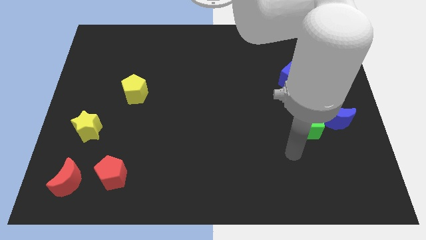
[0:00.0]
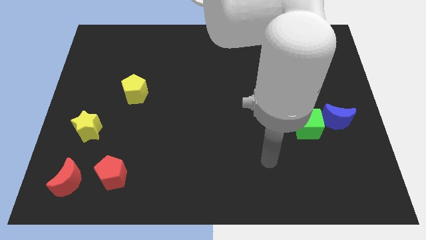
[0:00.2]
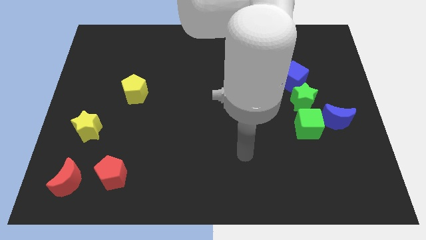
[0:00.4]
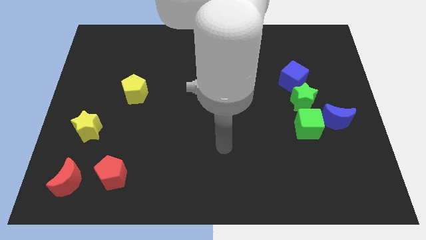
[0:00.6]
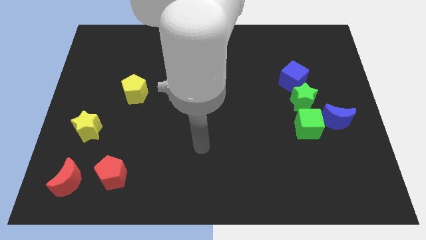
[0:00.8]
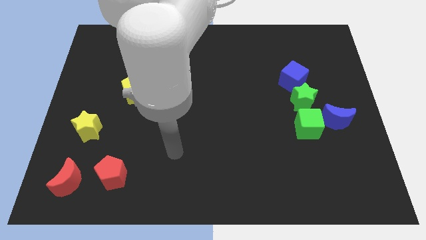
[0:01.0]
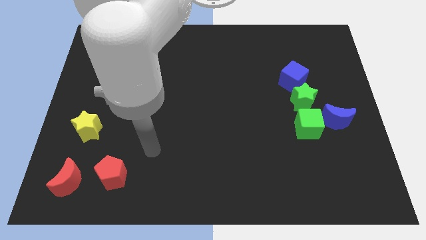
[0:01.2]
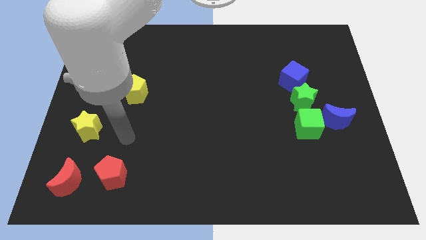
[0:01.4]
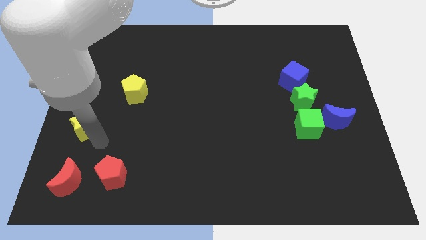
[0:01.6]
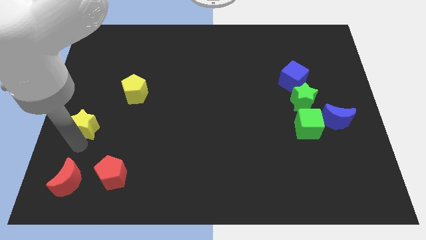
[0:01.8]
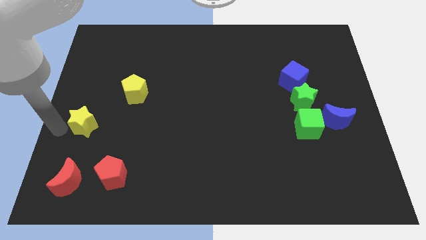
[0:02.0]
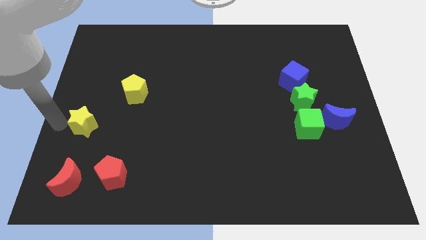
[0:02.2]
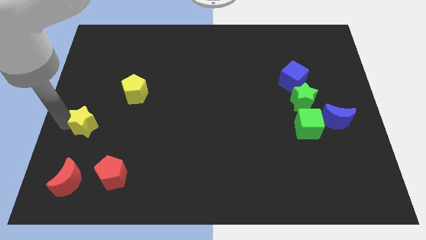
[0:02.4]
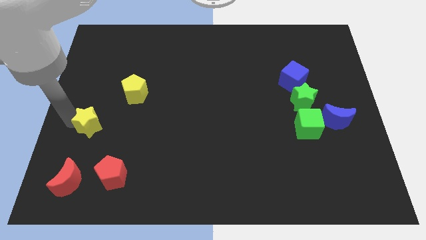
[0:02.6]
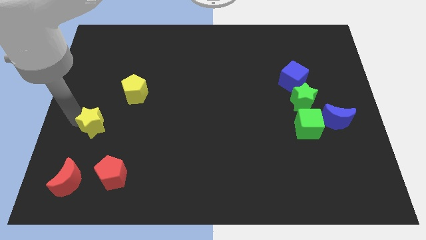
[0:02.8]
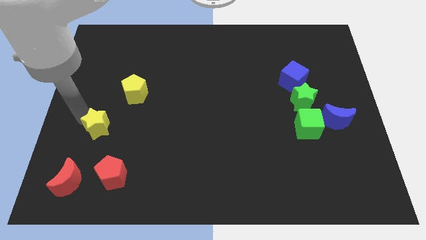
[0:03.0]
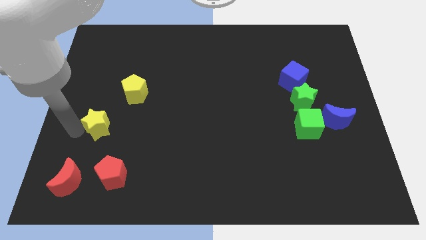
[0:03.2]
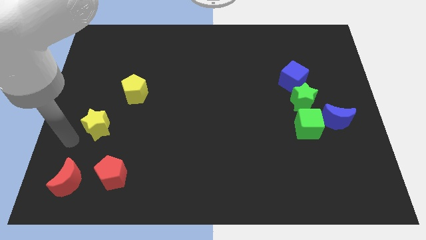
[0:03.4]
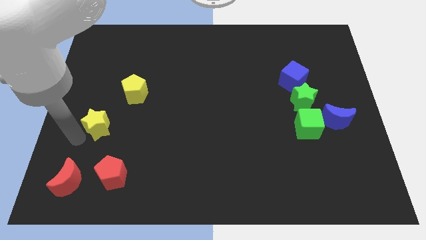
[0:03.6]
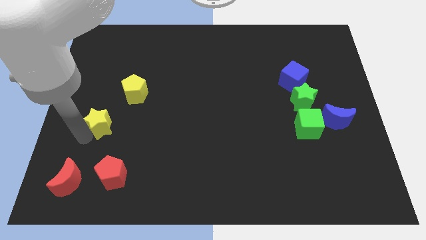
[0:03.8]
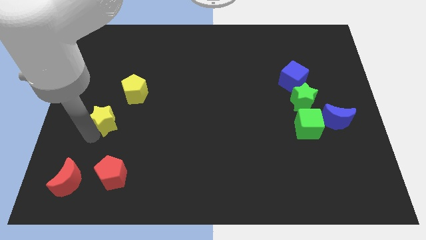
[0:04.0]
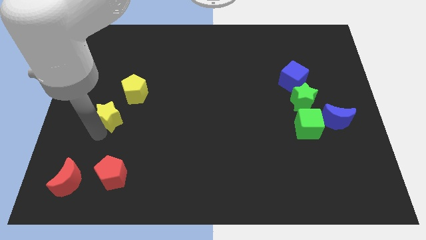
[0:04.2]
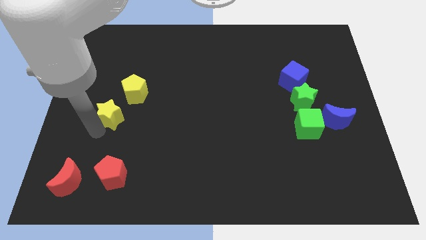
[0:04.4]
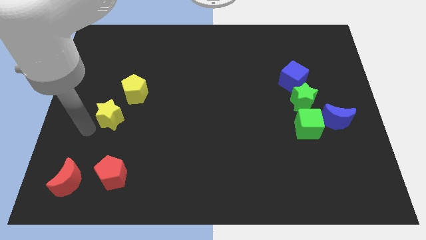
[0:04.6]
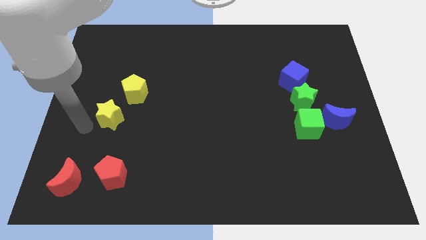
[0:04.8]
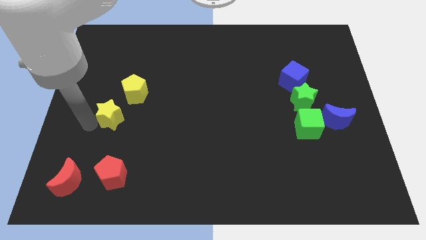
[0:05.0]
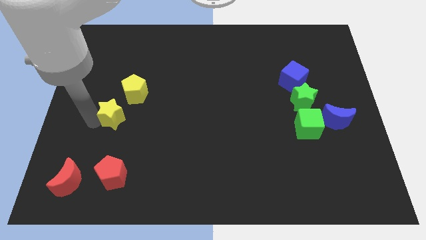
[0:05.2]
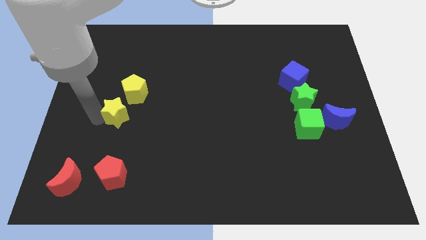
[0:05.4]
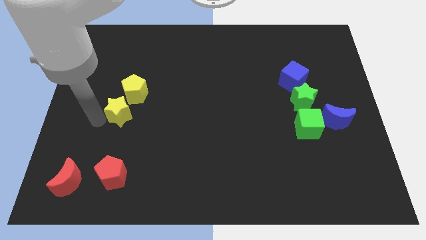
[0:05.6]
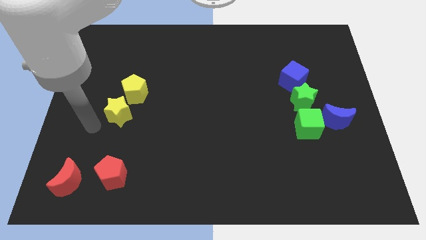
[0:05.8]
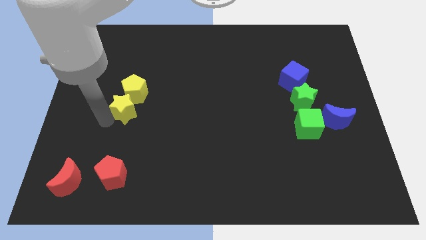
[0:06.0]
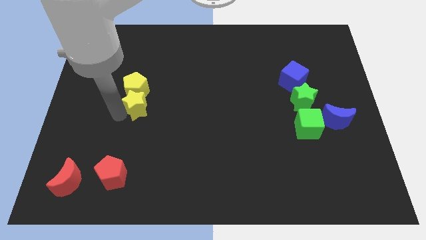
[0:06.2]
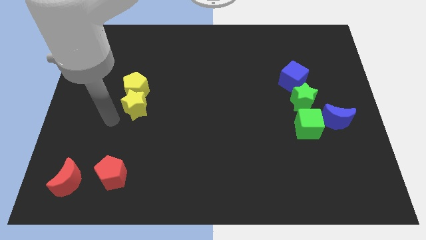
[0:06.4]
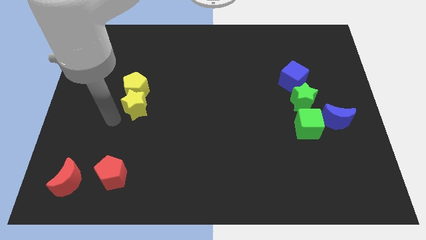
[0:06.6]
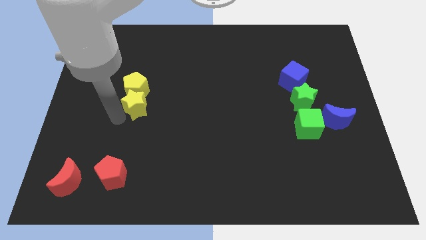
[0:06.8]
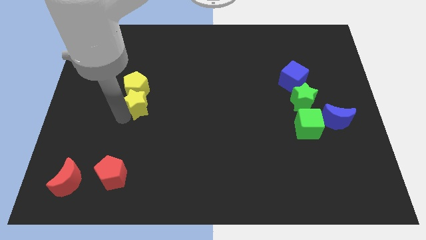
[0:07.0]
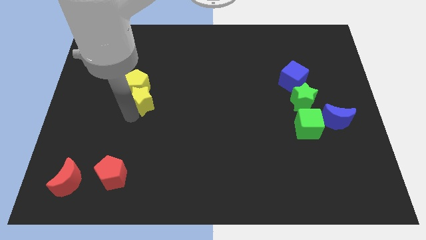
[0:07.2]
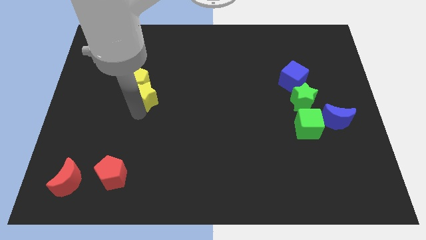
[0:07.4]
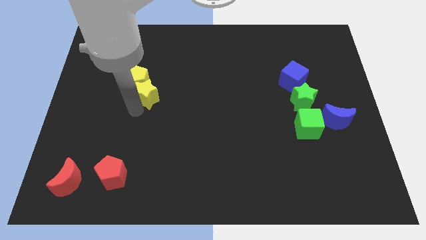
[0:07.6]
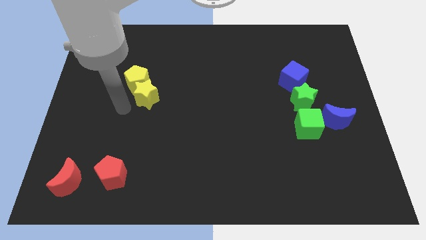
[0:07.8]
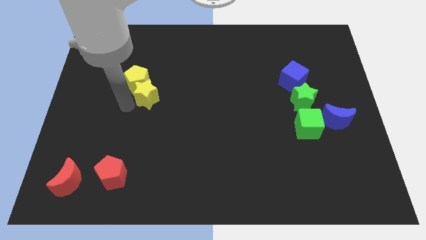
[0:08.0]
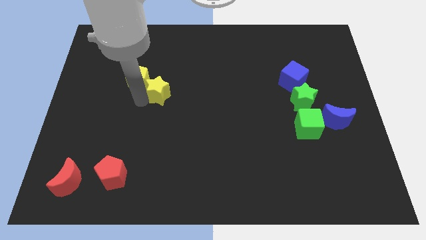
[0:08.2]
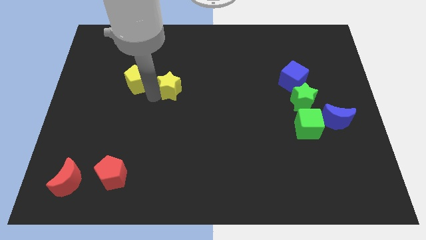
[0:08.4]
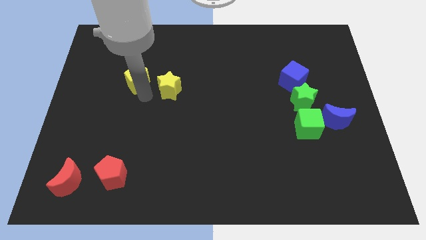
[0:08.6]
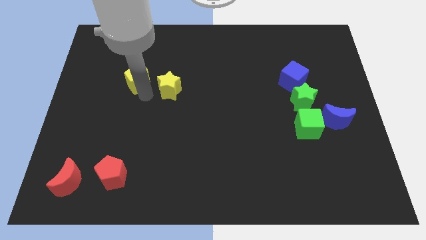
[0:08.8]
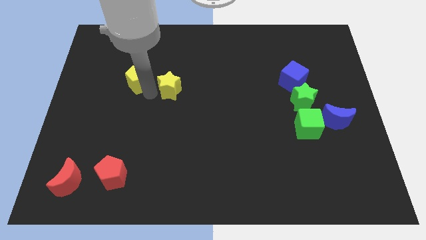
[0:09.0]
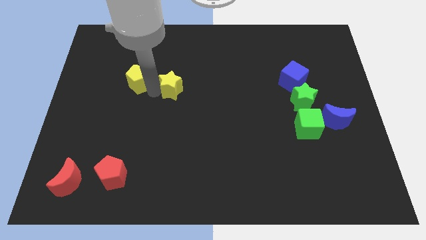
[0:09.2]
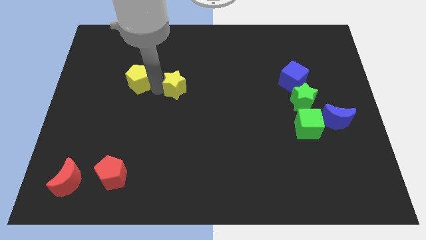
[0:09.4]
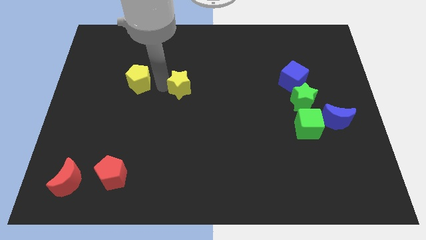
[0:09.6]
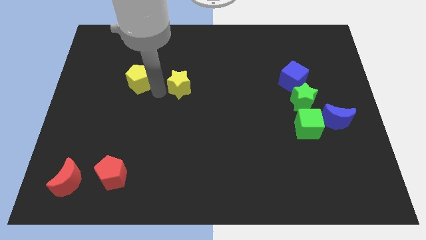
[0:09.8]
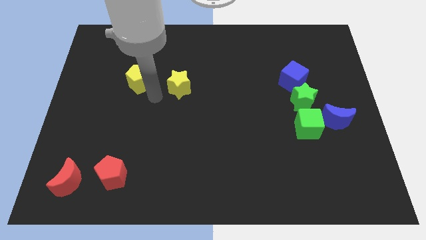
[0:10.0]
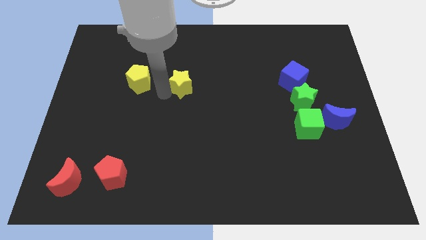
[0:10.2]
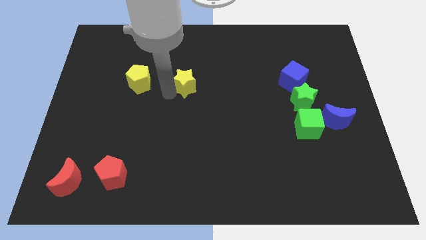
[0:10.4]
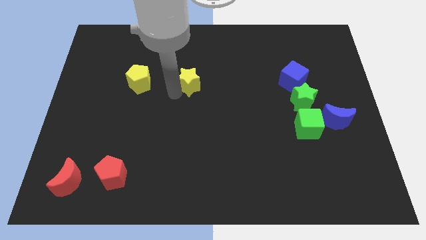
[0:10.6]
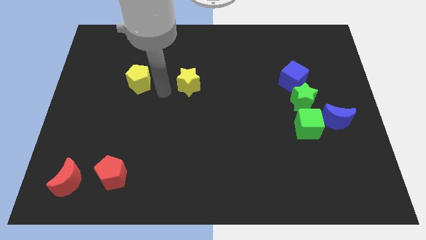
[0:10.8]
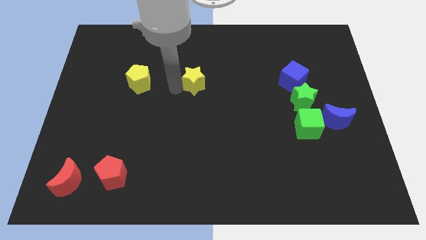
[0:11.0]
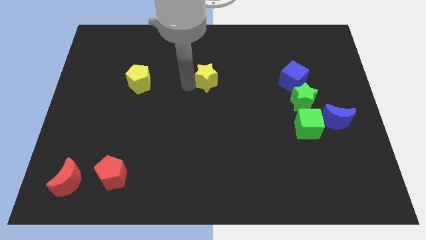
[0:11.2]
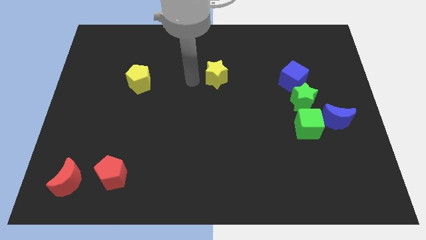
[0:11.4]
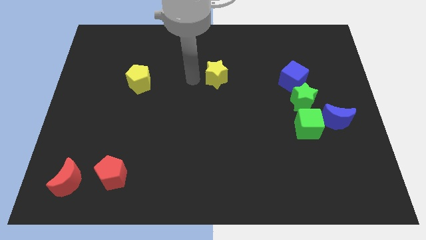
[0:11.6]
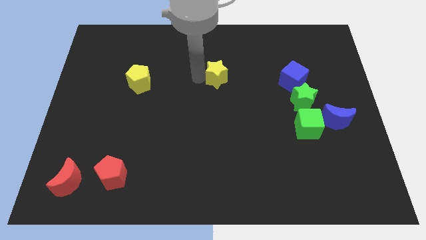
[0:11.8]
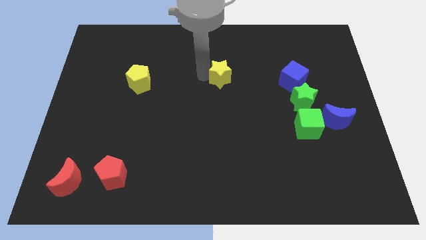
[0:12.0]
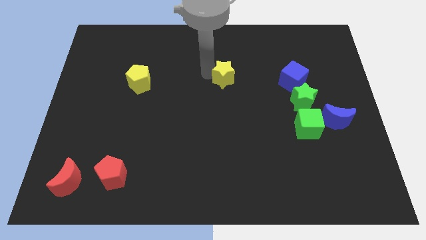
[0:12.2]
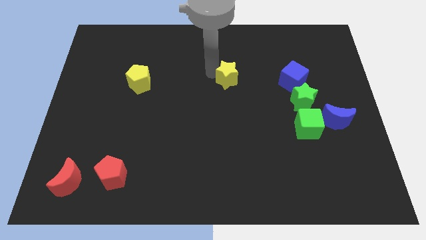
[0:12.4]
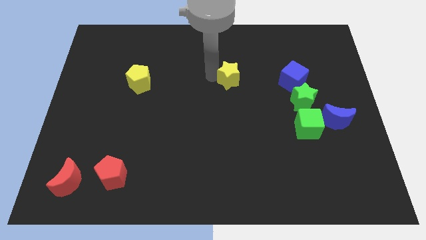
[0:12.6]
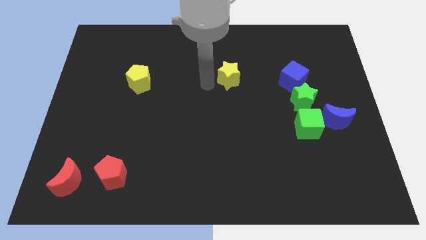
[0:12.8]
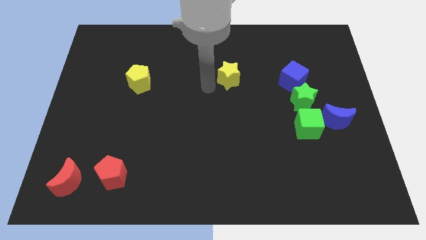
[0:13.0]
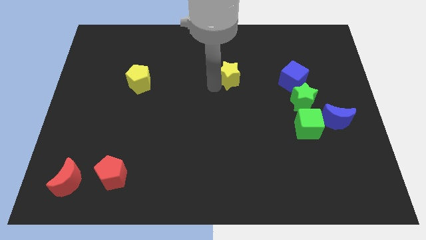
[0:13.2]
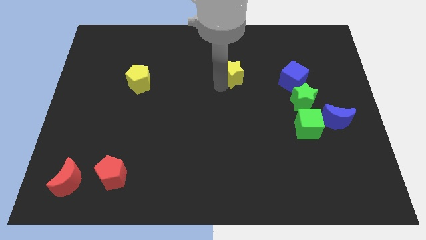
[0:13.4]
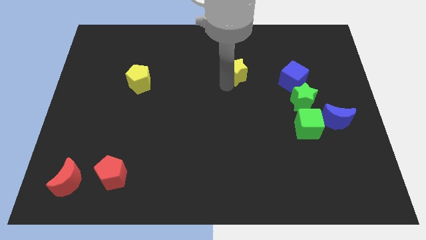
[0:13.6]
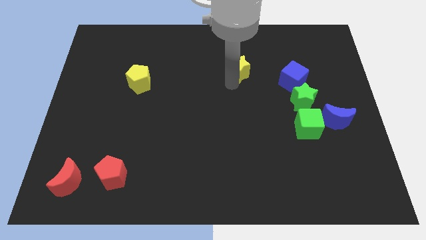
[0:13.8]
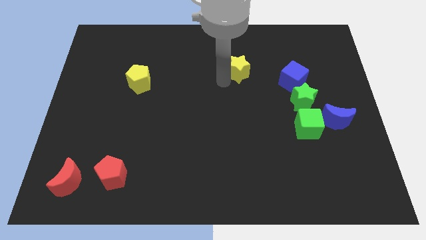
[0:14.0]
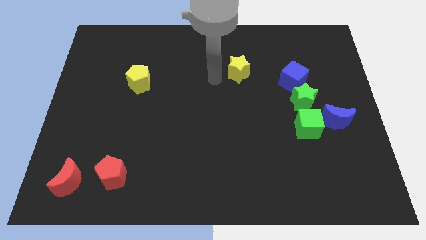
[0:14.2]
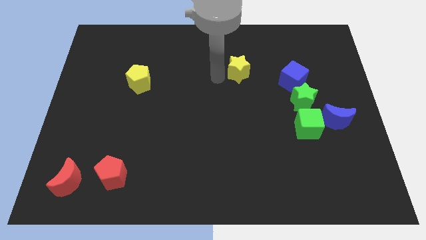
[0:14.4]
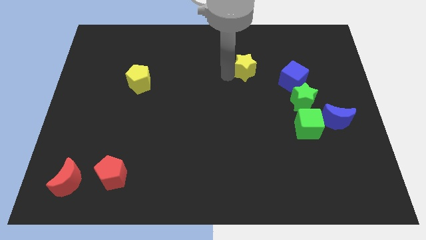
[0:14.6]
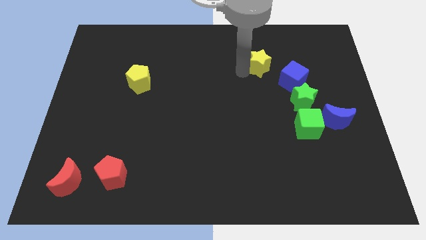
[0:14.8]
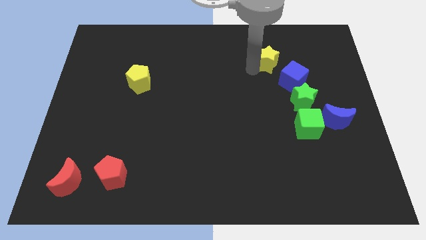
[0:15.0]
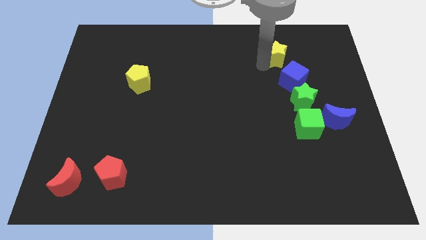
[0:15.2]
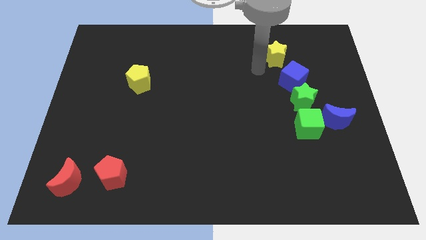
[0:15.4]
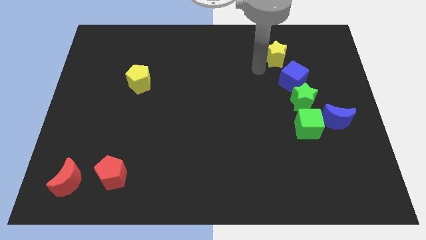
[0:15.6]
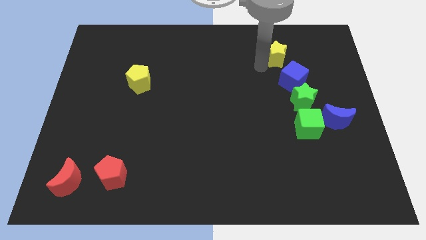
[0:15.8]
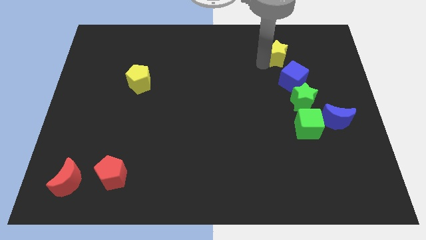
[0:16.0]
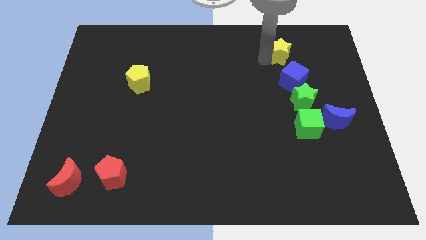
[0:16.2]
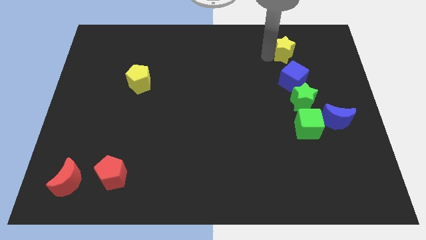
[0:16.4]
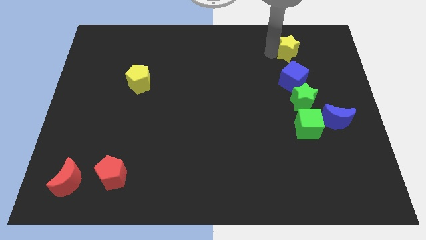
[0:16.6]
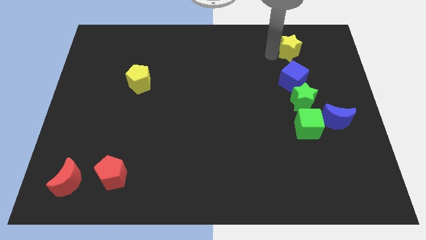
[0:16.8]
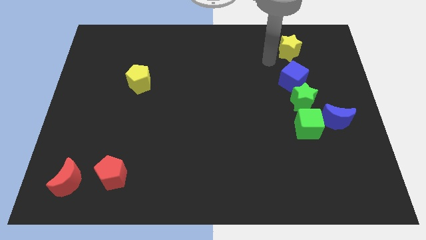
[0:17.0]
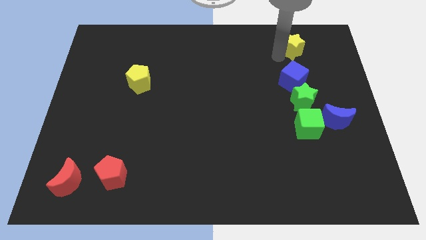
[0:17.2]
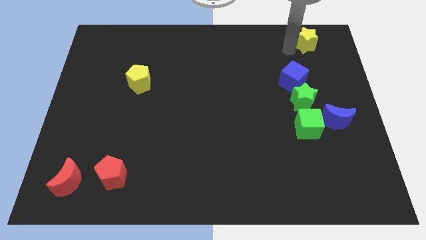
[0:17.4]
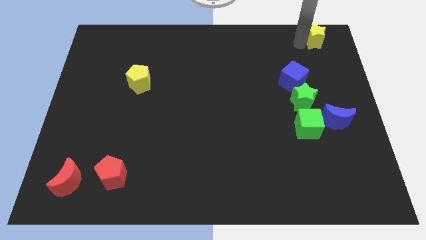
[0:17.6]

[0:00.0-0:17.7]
slide the yellow star to the top right corner
